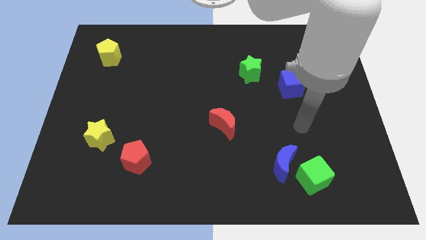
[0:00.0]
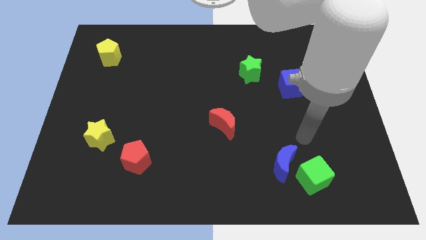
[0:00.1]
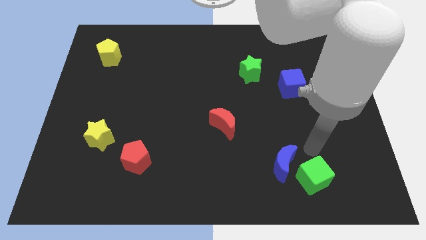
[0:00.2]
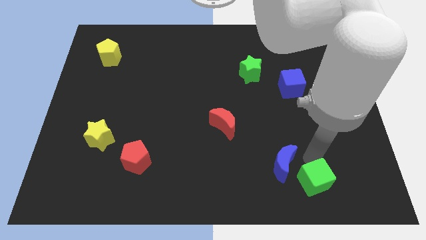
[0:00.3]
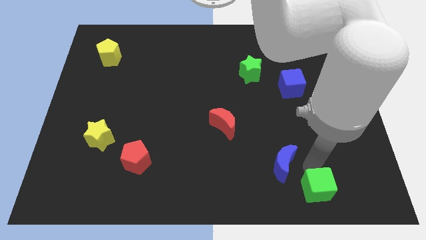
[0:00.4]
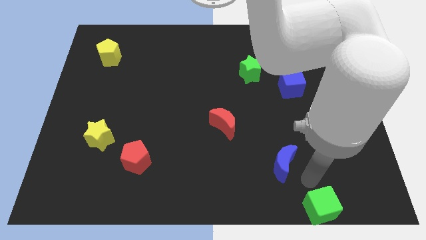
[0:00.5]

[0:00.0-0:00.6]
pull the blue moon apart from the green cube

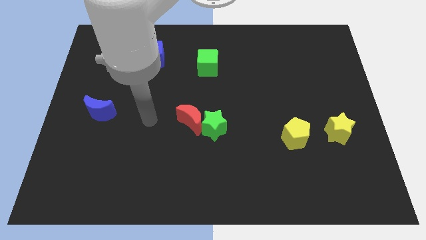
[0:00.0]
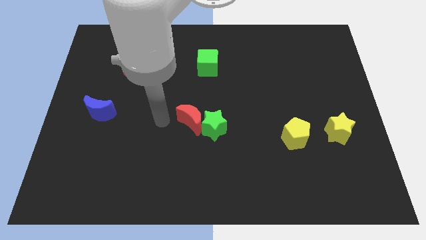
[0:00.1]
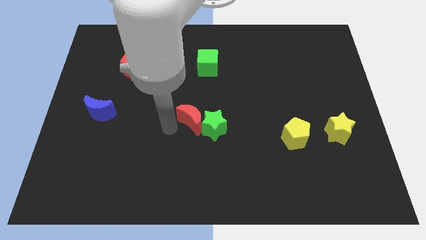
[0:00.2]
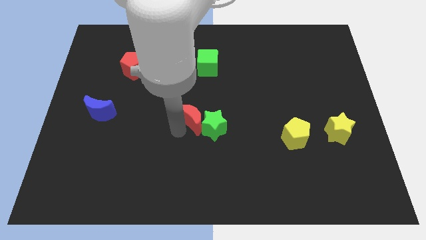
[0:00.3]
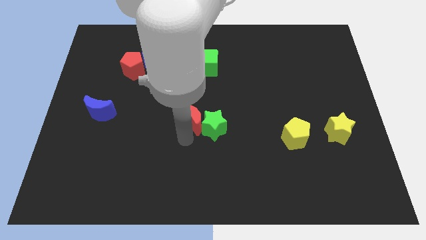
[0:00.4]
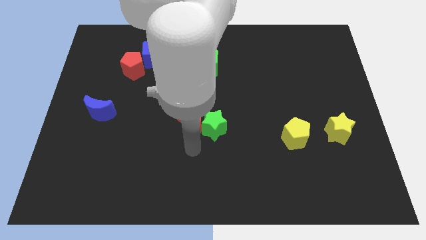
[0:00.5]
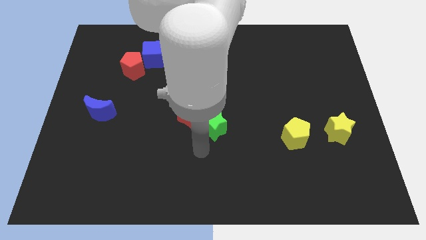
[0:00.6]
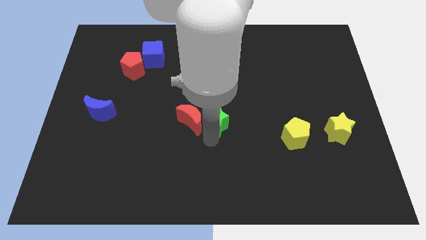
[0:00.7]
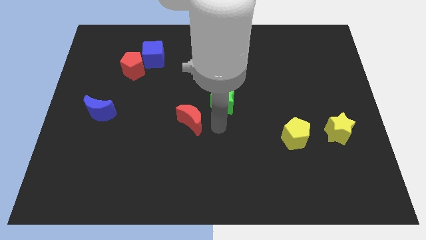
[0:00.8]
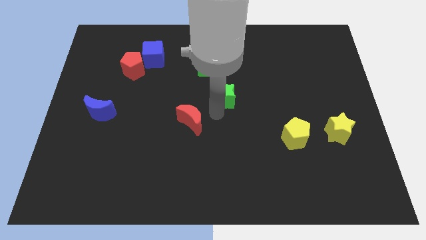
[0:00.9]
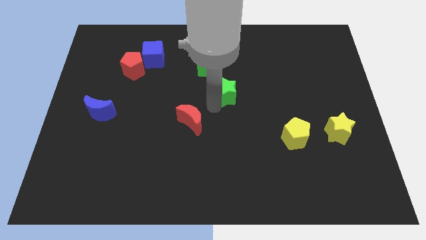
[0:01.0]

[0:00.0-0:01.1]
move the red moon away from the green star

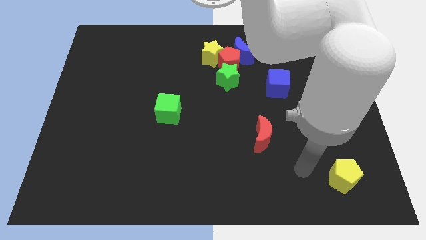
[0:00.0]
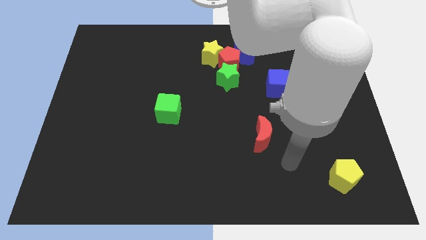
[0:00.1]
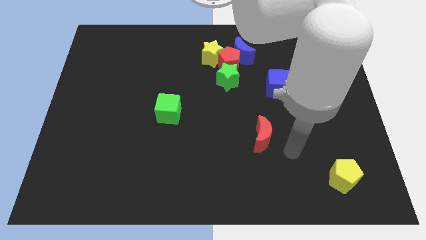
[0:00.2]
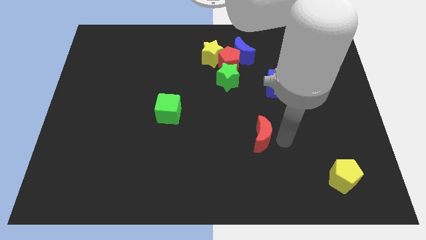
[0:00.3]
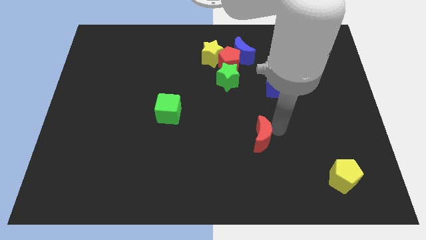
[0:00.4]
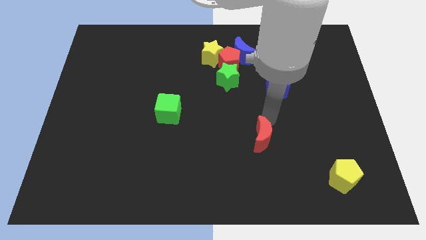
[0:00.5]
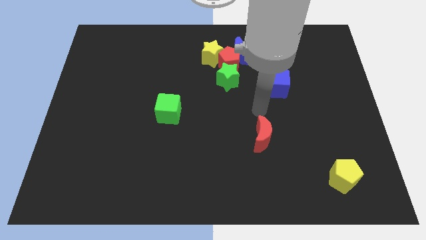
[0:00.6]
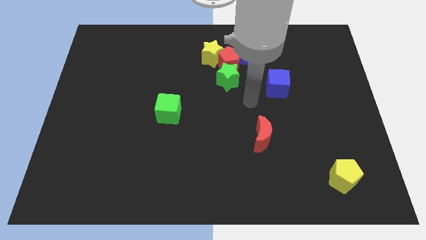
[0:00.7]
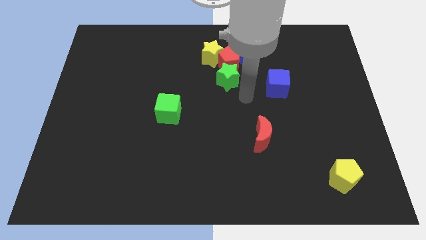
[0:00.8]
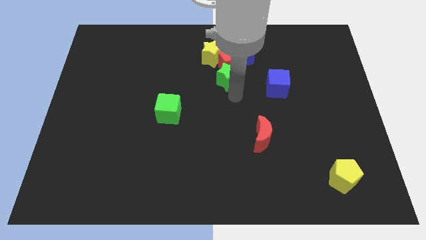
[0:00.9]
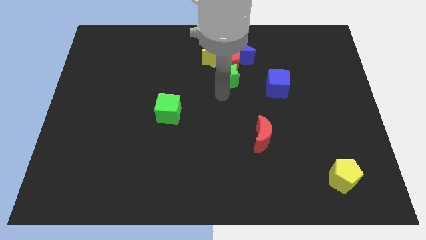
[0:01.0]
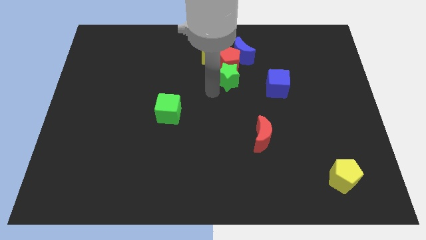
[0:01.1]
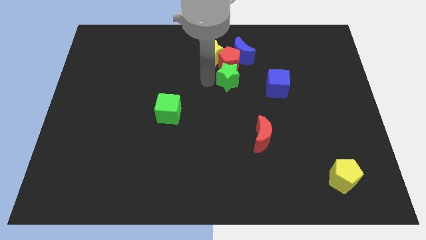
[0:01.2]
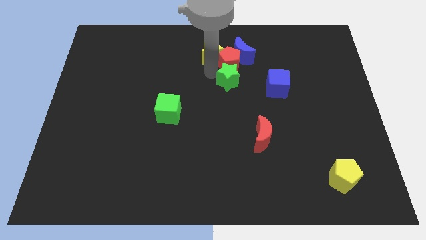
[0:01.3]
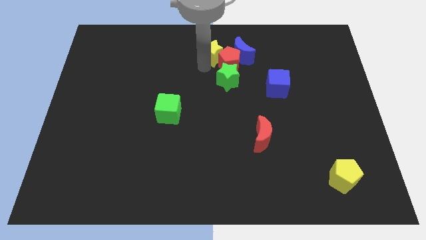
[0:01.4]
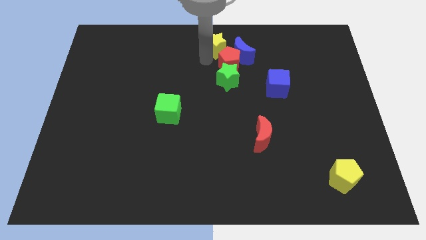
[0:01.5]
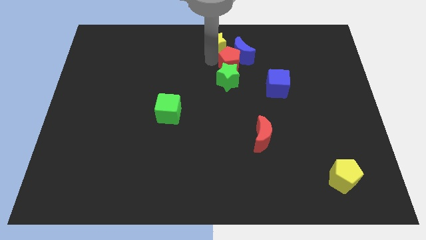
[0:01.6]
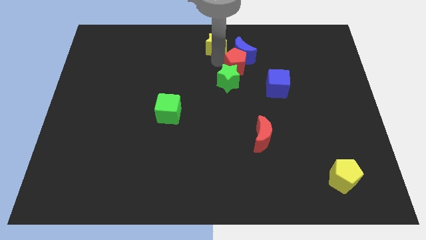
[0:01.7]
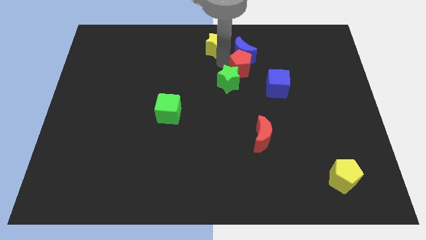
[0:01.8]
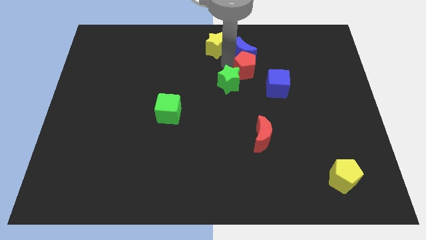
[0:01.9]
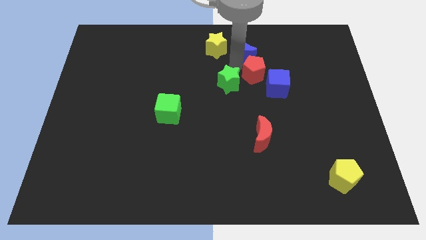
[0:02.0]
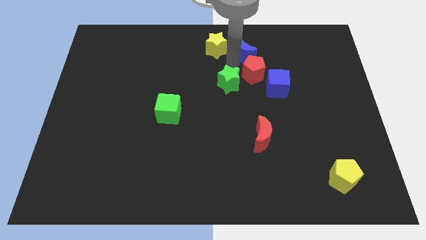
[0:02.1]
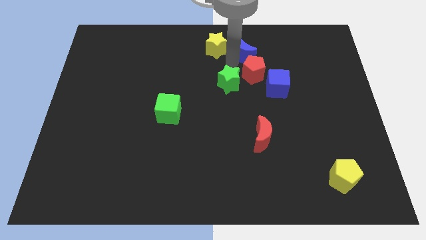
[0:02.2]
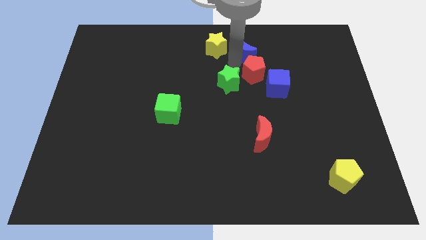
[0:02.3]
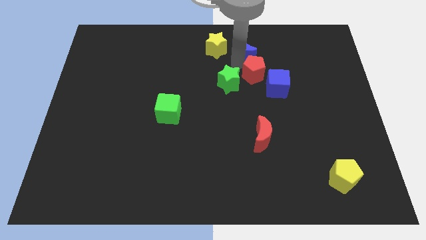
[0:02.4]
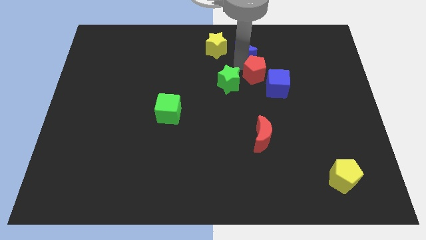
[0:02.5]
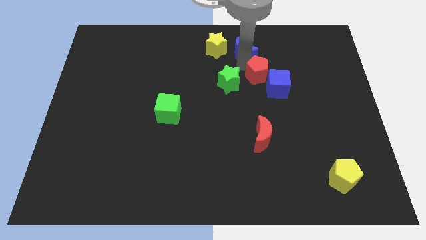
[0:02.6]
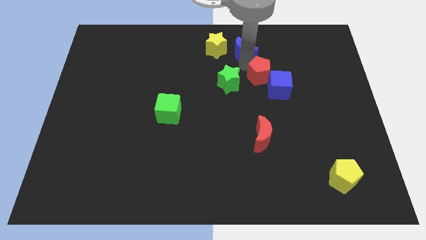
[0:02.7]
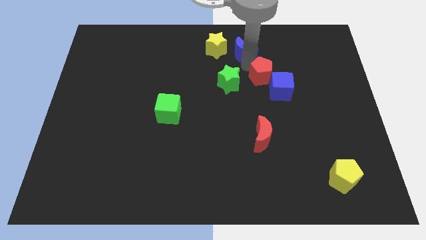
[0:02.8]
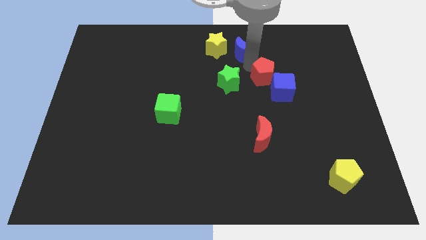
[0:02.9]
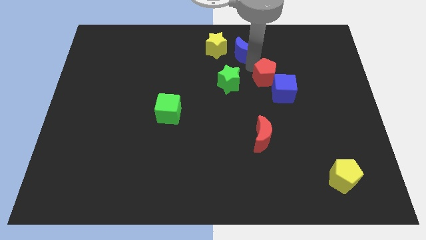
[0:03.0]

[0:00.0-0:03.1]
separate the red pentagon from the clump

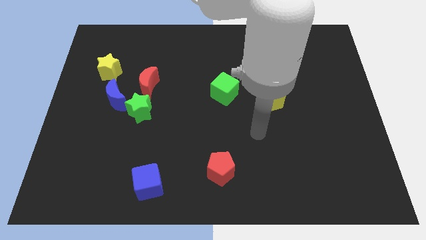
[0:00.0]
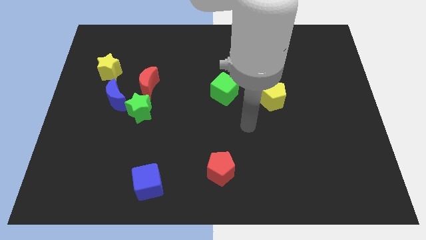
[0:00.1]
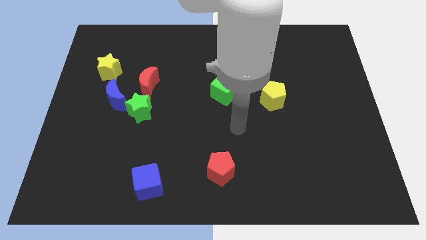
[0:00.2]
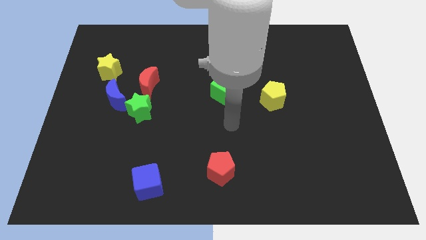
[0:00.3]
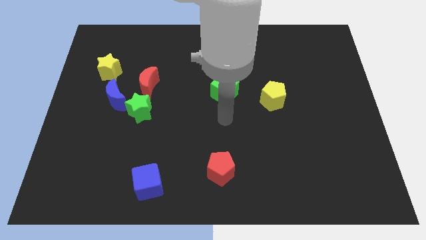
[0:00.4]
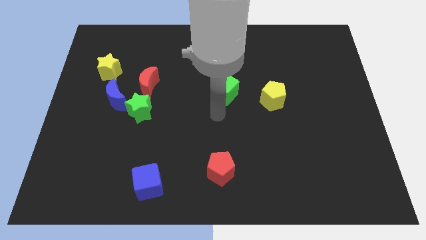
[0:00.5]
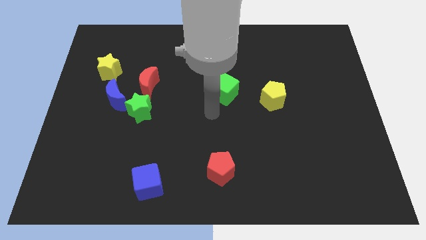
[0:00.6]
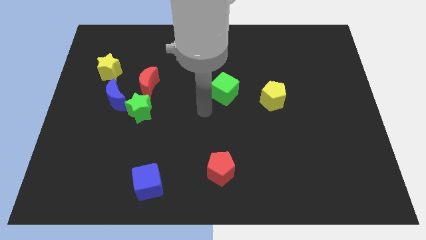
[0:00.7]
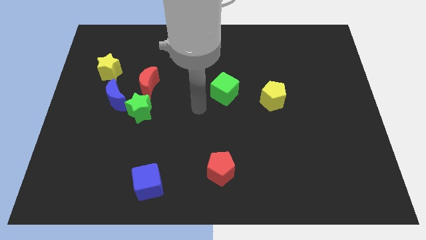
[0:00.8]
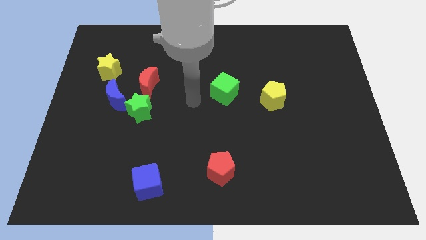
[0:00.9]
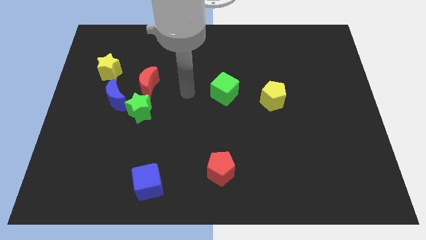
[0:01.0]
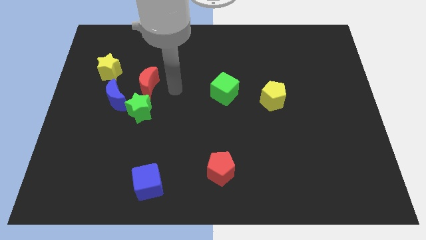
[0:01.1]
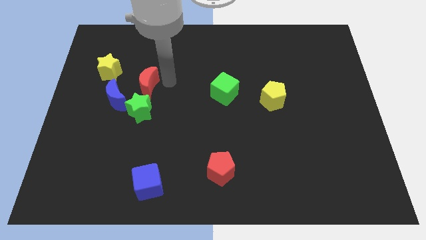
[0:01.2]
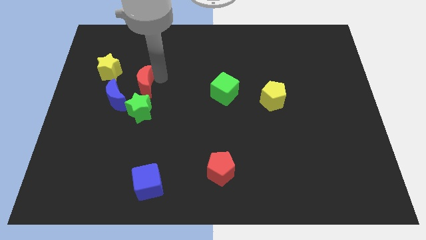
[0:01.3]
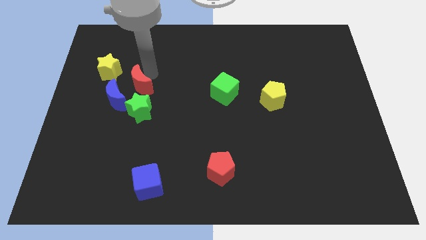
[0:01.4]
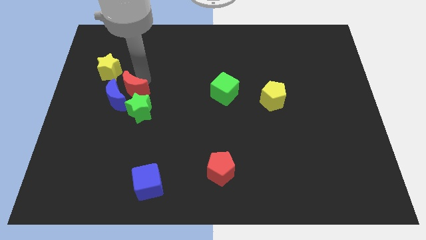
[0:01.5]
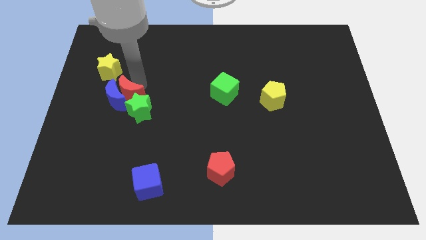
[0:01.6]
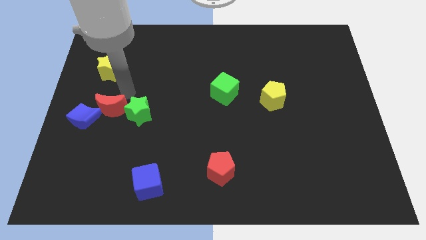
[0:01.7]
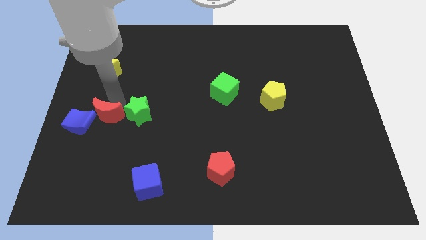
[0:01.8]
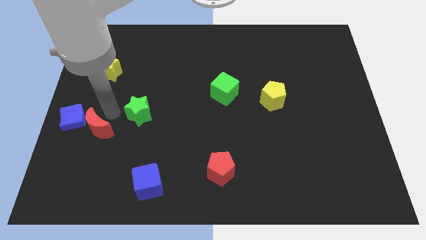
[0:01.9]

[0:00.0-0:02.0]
separate the green star from the blue moon and red moon

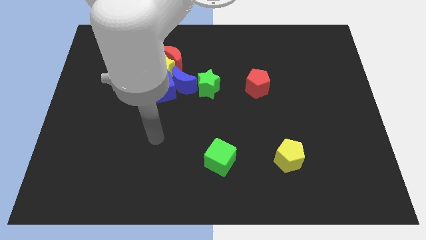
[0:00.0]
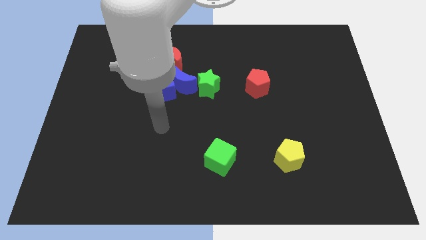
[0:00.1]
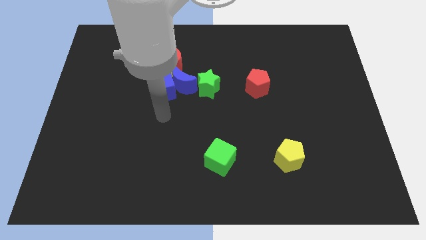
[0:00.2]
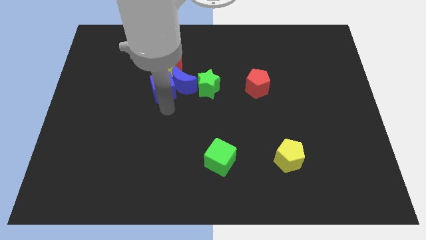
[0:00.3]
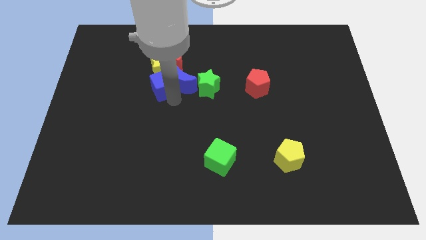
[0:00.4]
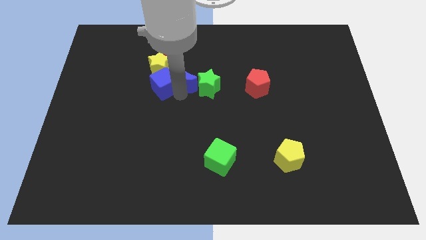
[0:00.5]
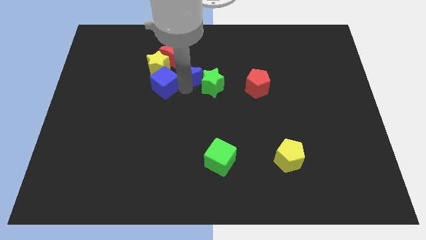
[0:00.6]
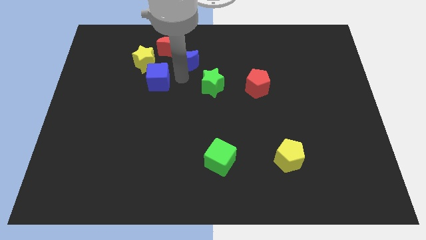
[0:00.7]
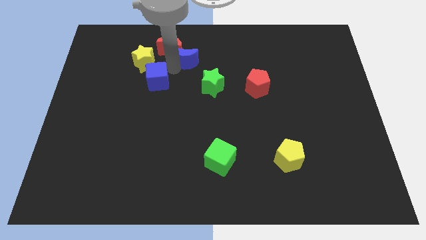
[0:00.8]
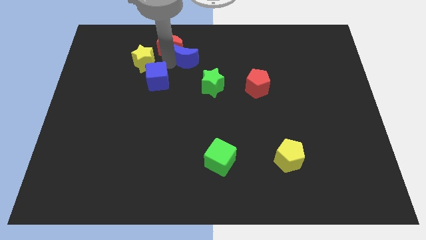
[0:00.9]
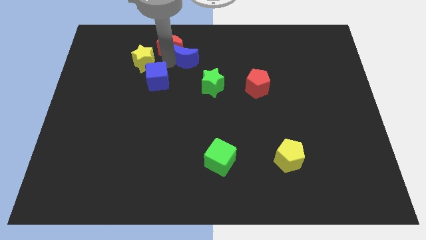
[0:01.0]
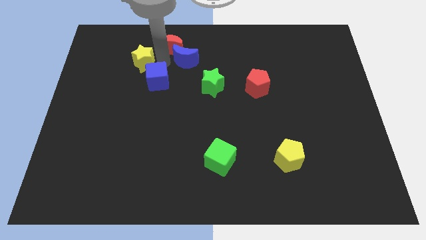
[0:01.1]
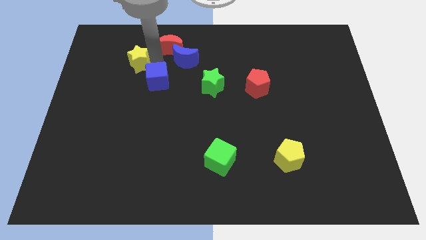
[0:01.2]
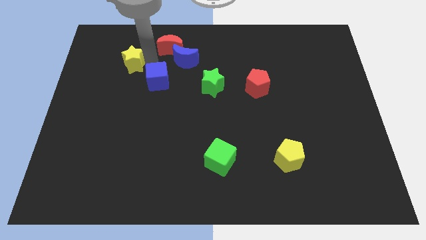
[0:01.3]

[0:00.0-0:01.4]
separate the yellow star from the red moon, blue cube, and blue moon

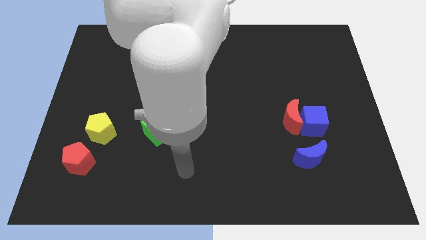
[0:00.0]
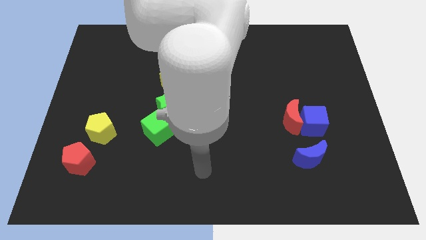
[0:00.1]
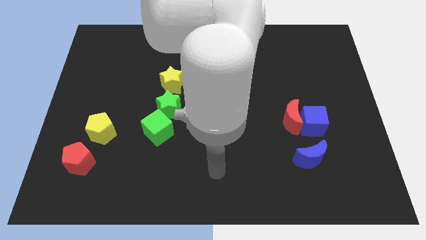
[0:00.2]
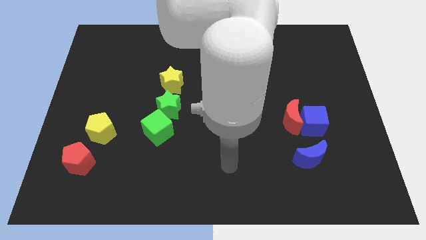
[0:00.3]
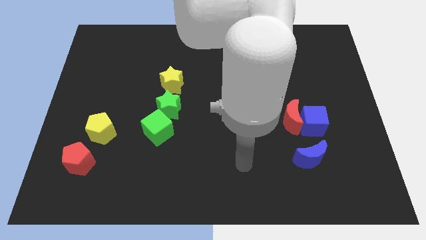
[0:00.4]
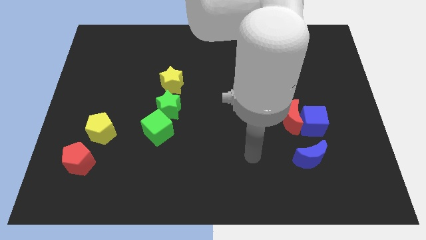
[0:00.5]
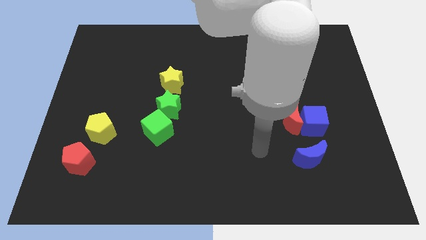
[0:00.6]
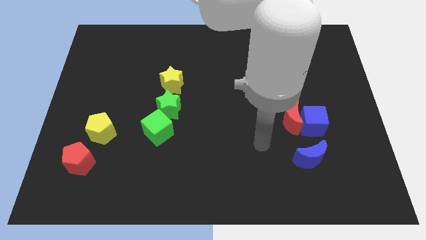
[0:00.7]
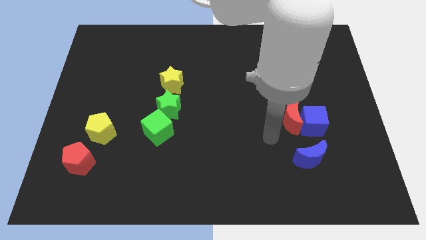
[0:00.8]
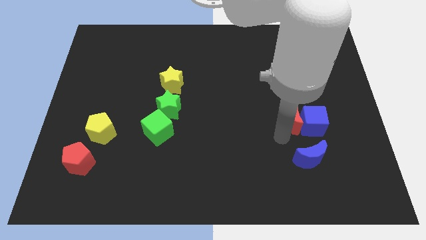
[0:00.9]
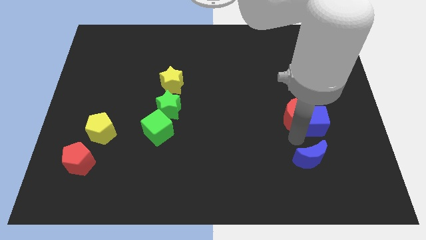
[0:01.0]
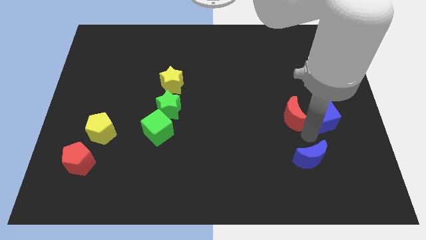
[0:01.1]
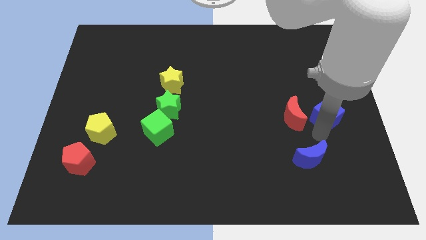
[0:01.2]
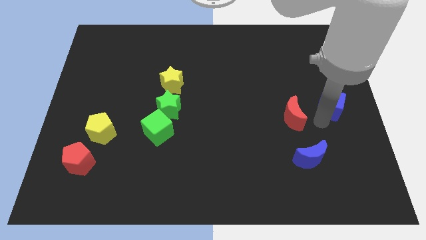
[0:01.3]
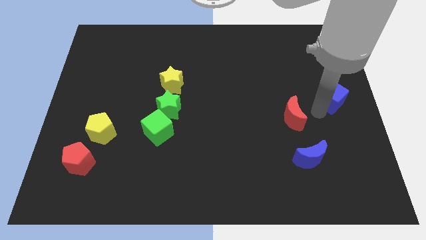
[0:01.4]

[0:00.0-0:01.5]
move the red moon away from the blue cube
